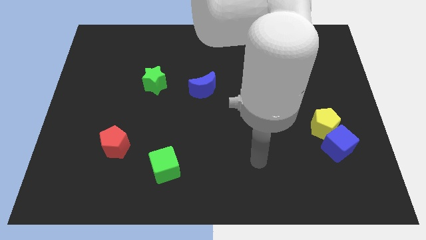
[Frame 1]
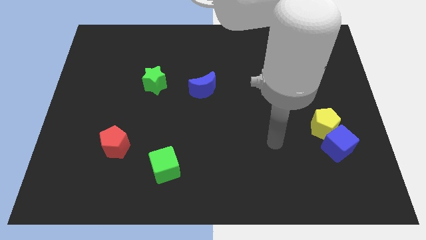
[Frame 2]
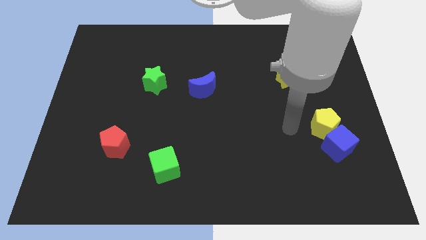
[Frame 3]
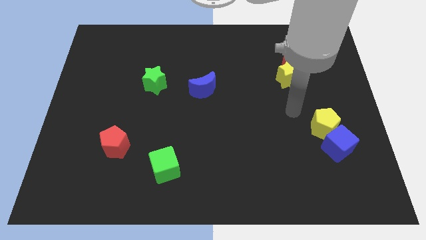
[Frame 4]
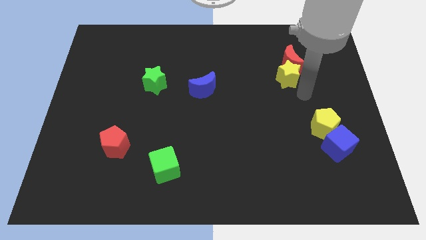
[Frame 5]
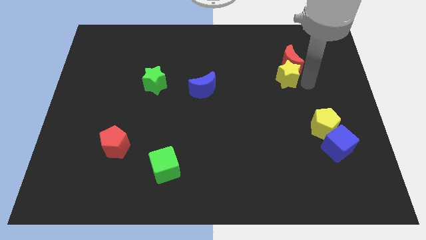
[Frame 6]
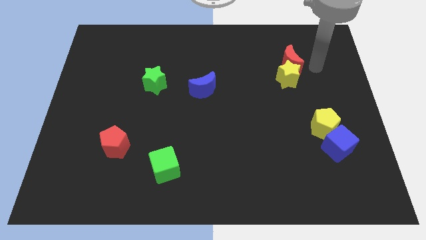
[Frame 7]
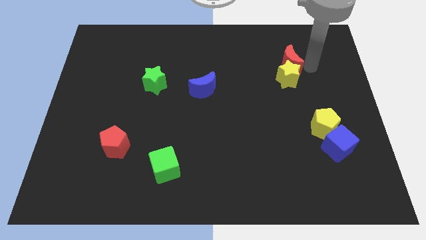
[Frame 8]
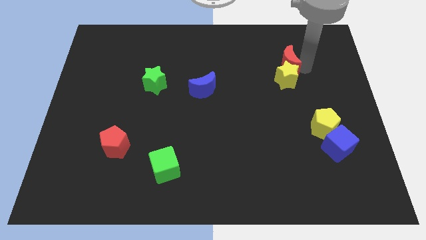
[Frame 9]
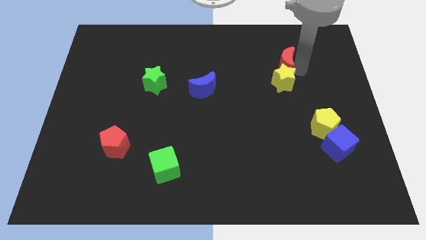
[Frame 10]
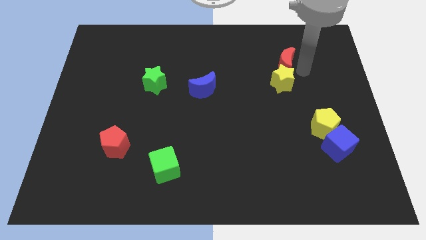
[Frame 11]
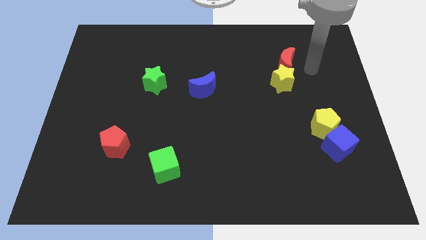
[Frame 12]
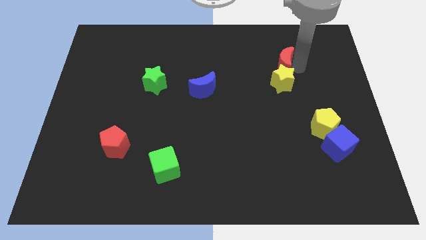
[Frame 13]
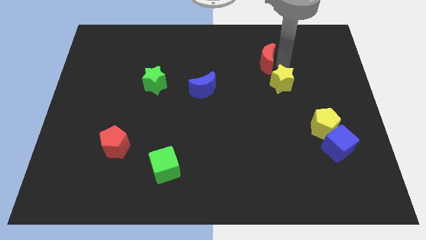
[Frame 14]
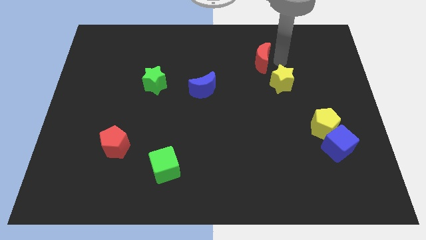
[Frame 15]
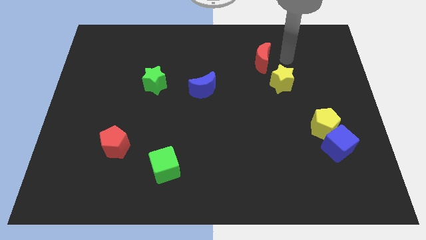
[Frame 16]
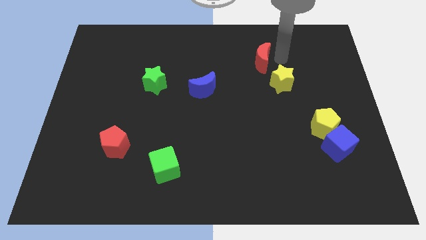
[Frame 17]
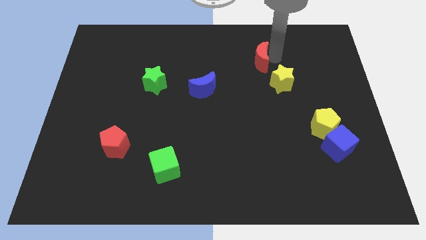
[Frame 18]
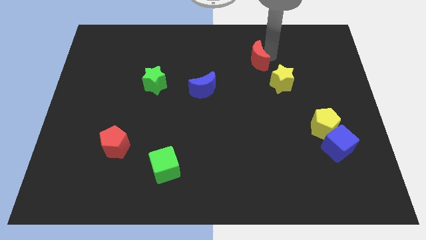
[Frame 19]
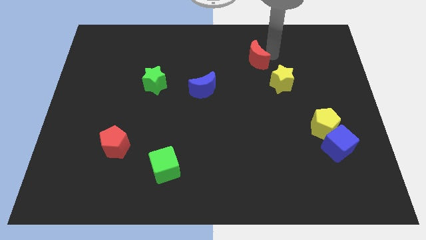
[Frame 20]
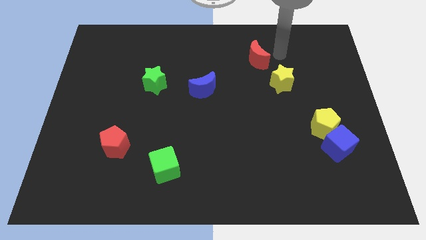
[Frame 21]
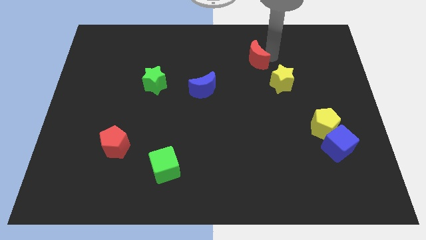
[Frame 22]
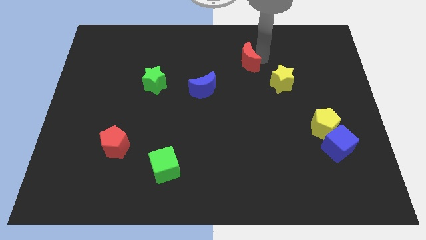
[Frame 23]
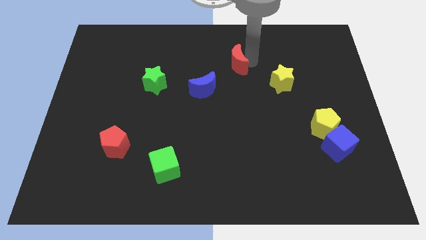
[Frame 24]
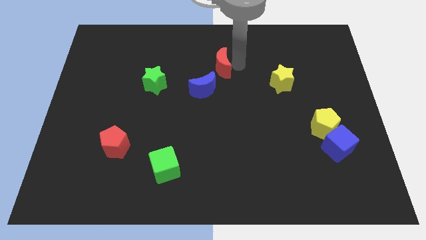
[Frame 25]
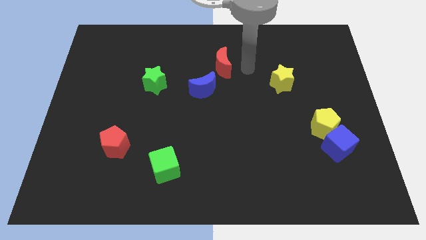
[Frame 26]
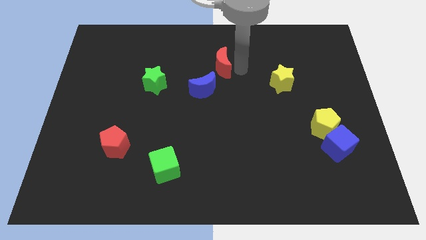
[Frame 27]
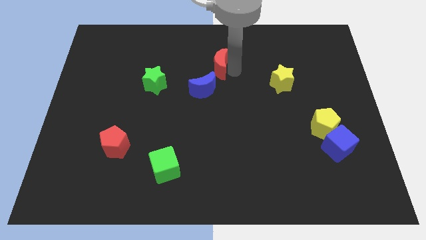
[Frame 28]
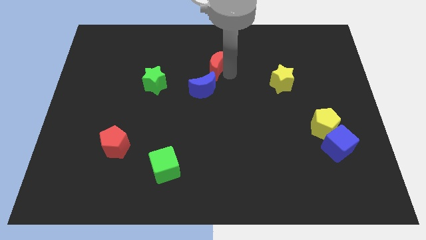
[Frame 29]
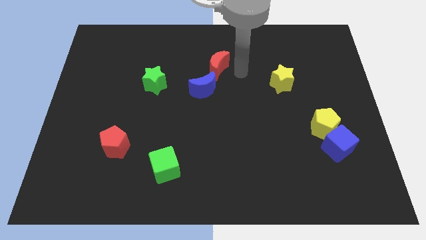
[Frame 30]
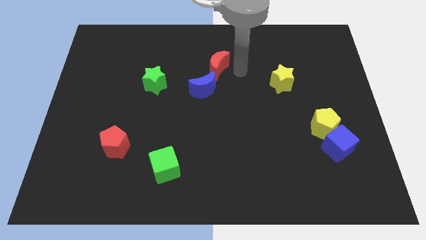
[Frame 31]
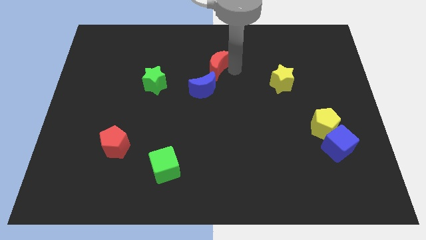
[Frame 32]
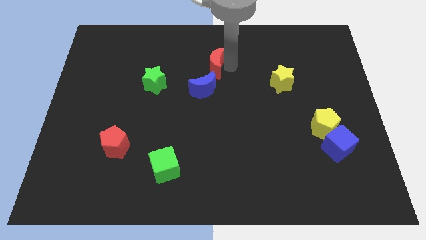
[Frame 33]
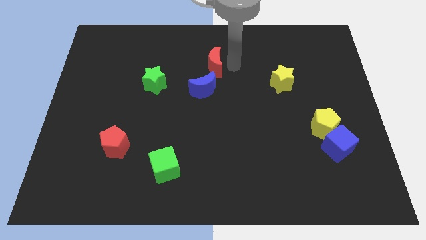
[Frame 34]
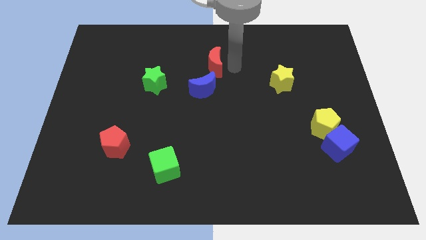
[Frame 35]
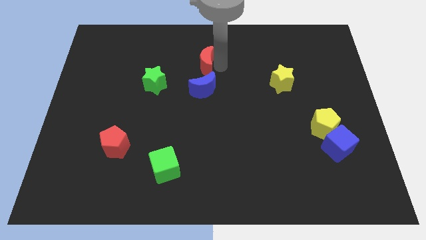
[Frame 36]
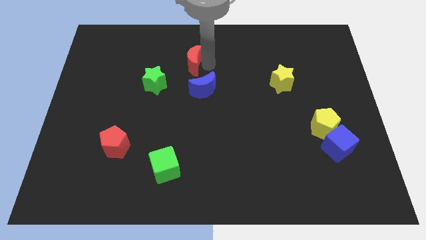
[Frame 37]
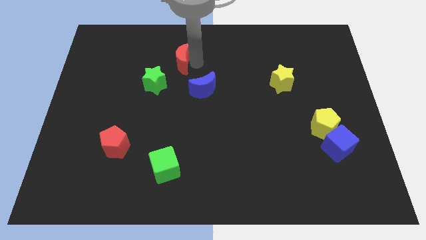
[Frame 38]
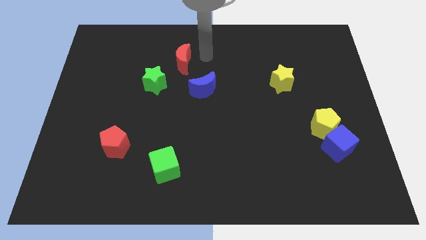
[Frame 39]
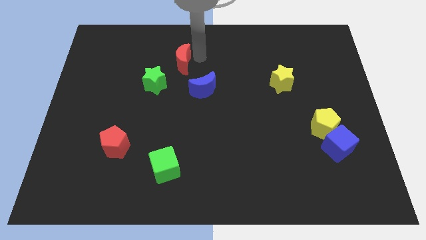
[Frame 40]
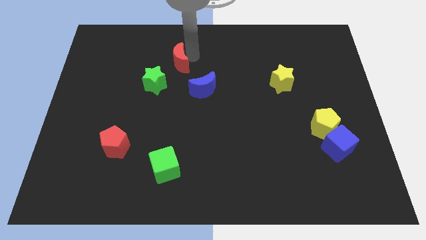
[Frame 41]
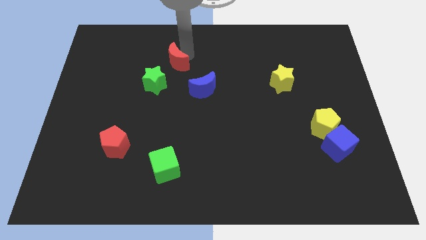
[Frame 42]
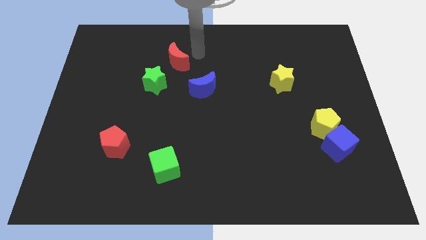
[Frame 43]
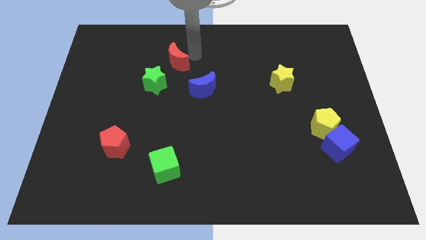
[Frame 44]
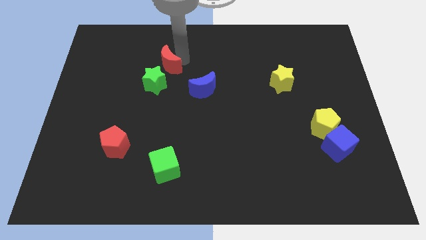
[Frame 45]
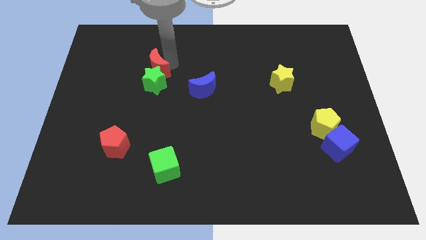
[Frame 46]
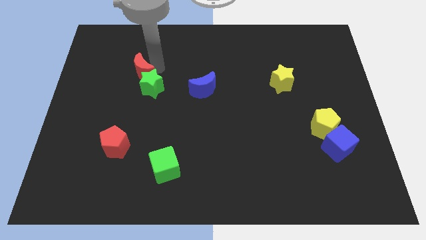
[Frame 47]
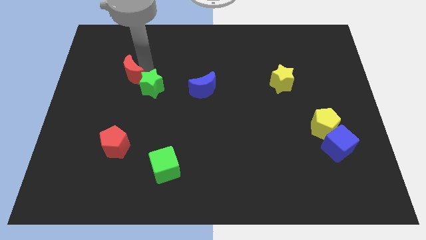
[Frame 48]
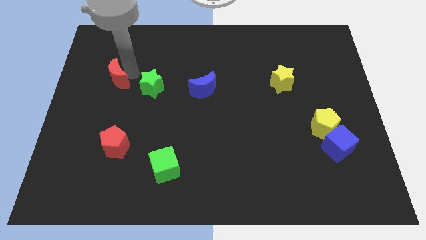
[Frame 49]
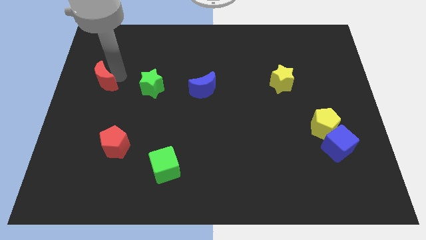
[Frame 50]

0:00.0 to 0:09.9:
slide the red moon to the center left

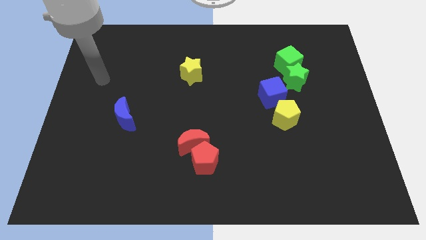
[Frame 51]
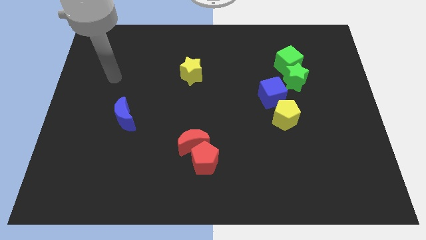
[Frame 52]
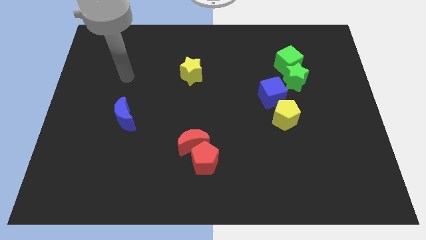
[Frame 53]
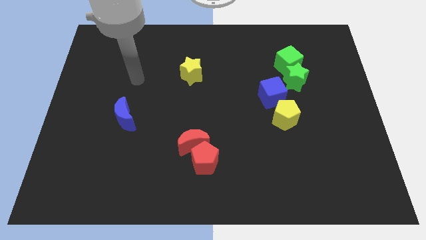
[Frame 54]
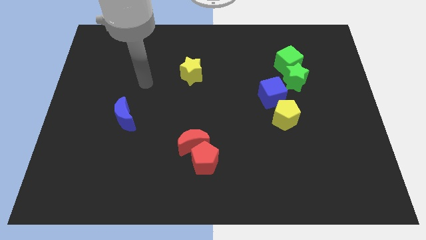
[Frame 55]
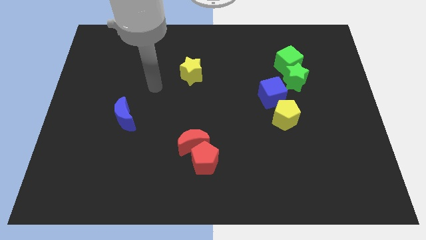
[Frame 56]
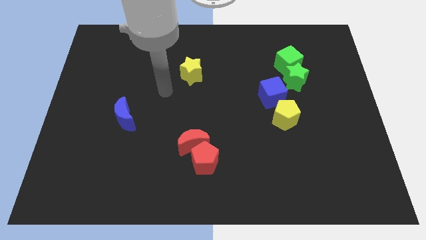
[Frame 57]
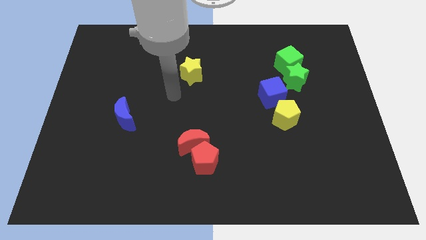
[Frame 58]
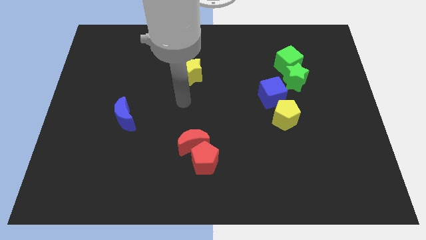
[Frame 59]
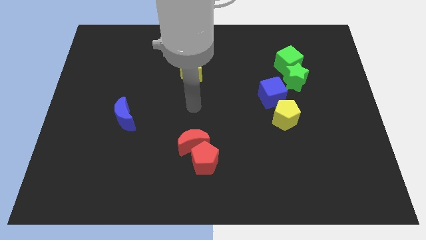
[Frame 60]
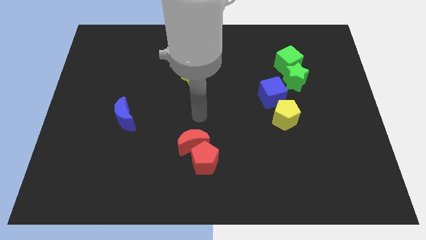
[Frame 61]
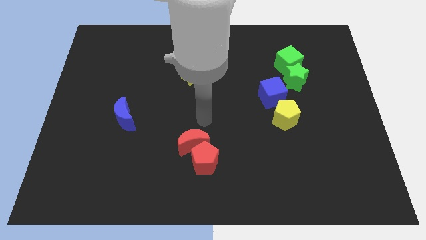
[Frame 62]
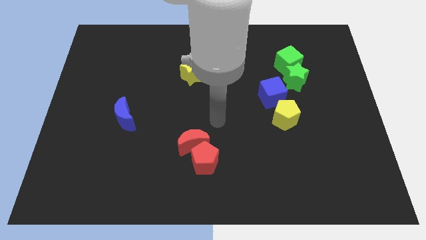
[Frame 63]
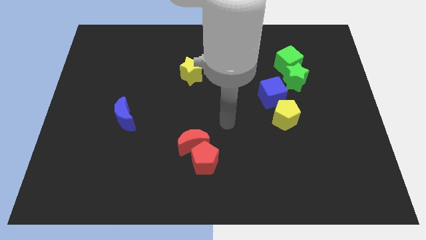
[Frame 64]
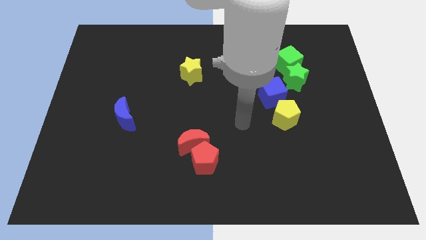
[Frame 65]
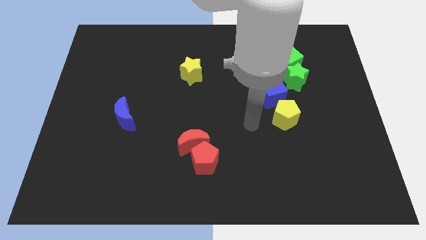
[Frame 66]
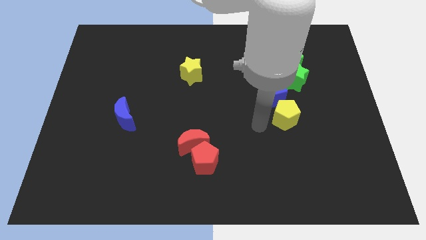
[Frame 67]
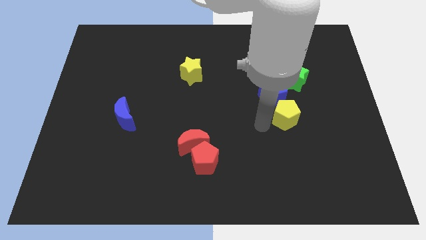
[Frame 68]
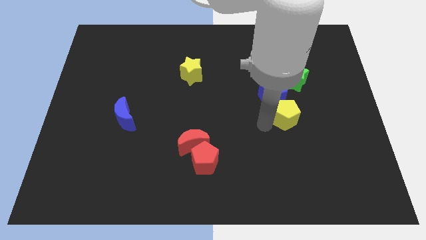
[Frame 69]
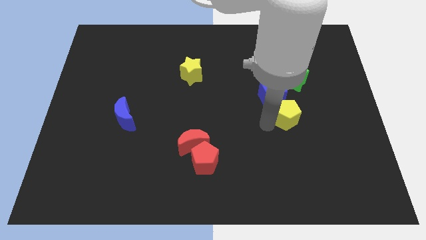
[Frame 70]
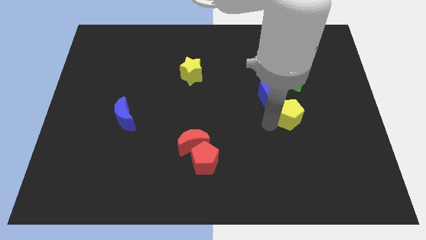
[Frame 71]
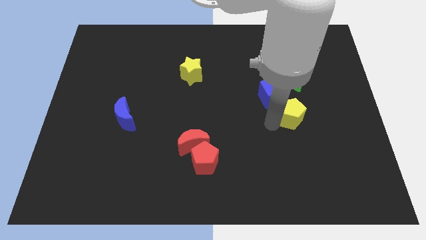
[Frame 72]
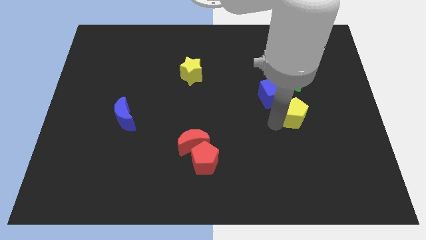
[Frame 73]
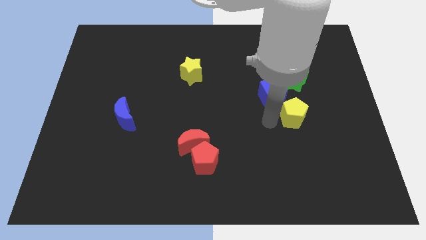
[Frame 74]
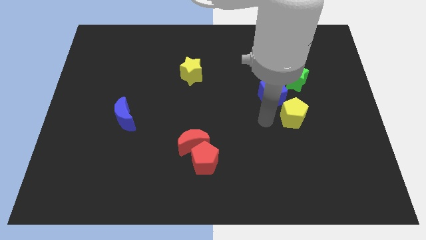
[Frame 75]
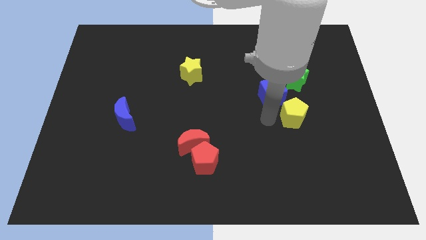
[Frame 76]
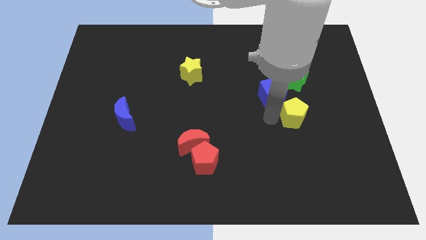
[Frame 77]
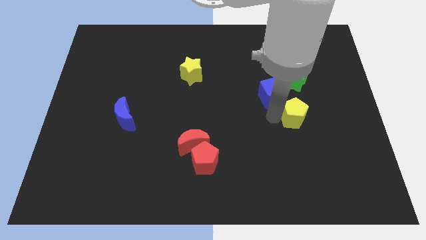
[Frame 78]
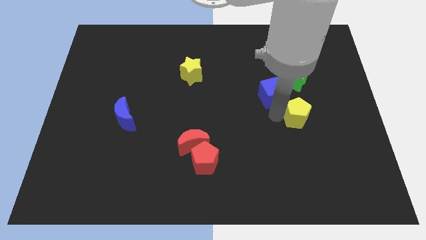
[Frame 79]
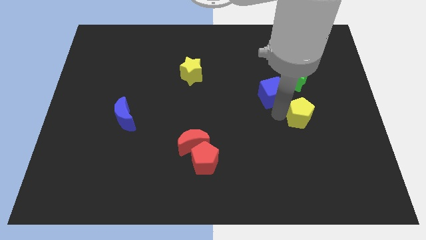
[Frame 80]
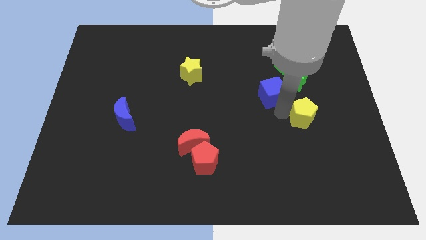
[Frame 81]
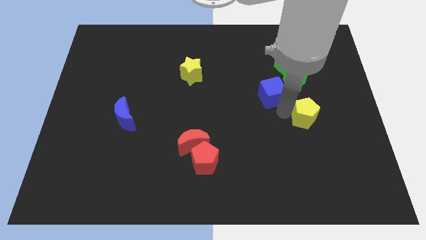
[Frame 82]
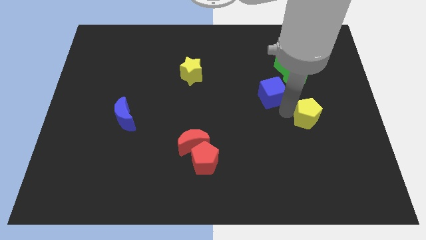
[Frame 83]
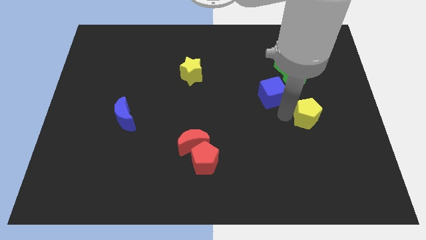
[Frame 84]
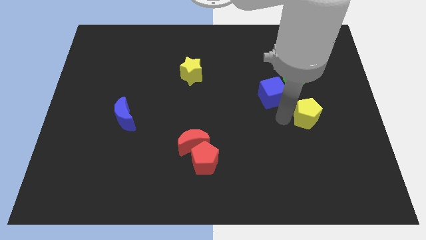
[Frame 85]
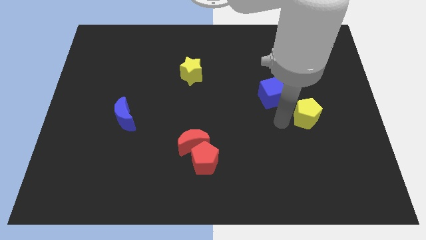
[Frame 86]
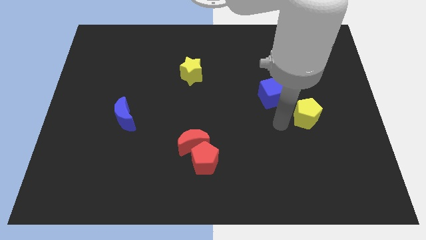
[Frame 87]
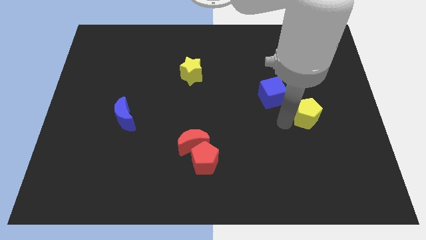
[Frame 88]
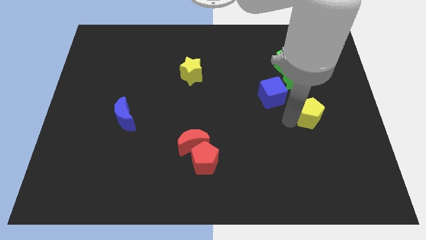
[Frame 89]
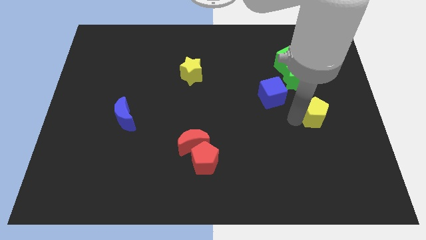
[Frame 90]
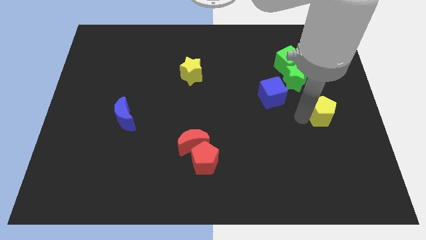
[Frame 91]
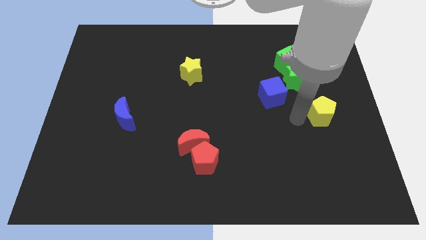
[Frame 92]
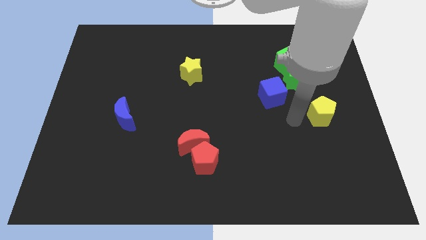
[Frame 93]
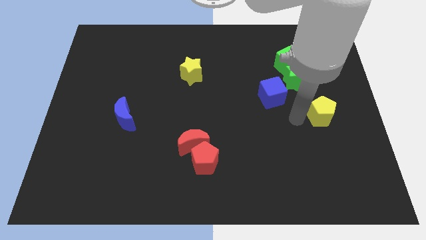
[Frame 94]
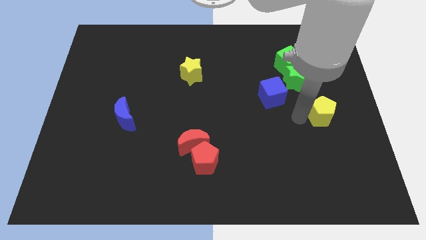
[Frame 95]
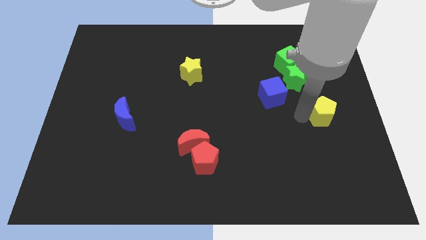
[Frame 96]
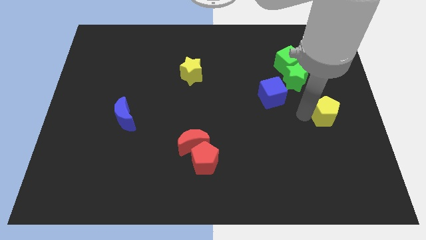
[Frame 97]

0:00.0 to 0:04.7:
slide the yellow pentagon to the right side of the board
